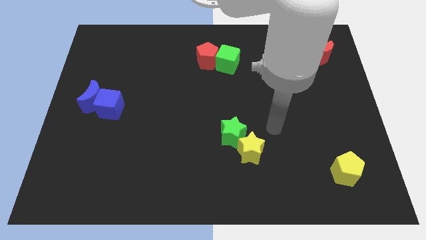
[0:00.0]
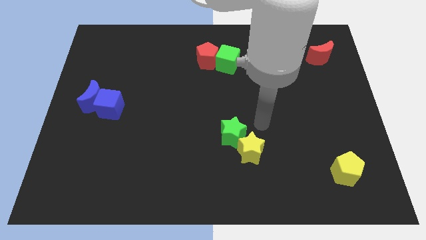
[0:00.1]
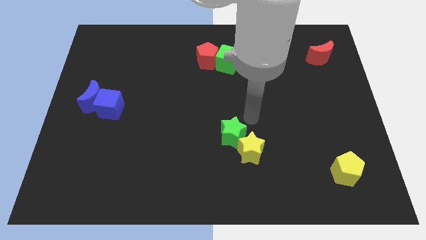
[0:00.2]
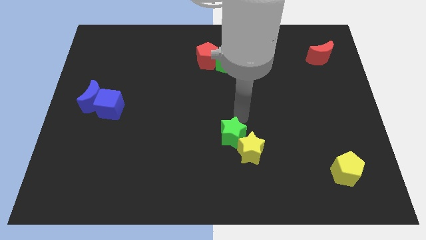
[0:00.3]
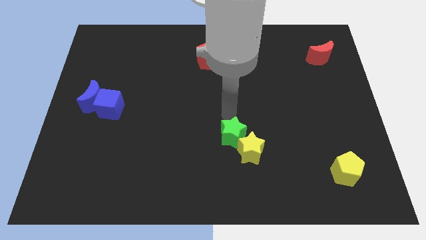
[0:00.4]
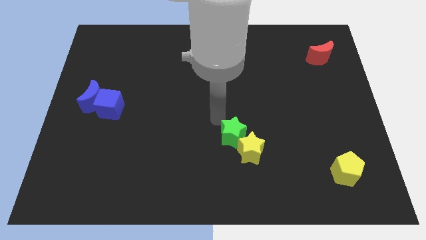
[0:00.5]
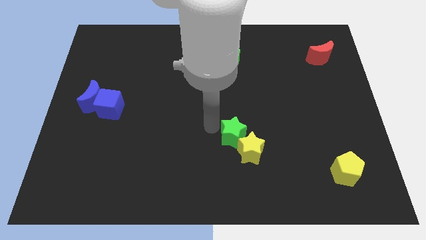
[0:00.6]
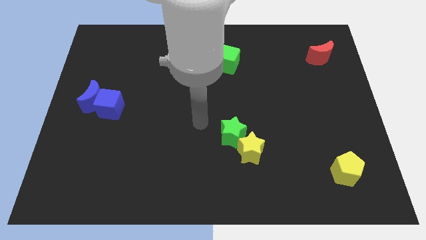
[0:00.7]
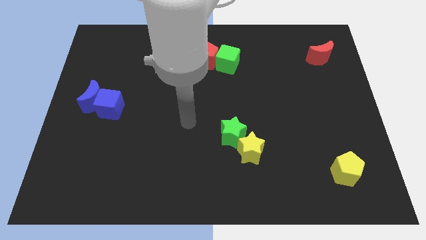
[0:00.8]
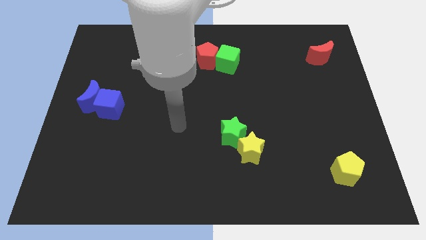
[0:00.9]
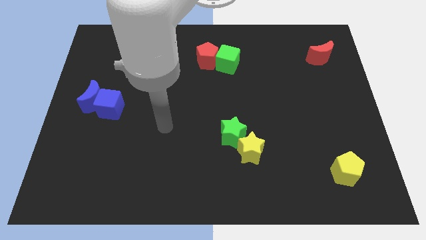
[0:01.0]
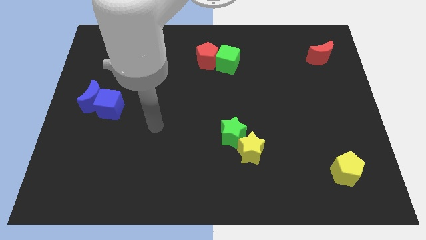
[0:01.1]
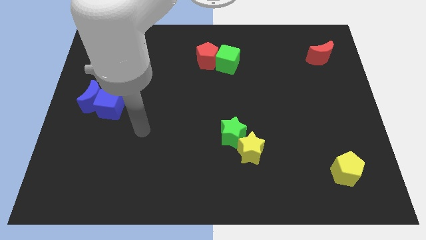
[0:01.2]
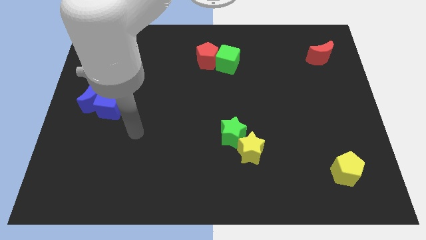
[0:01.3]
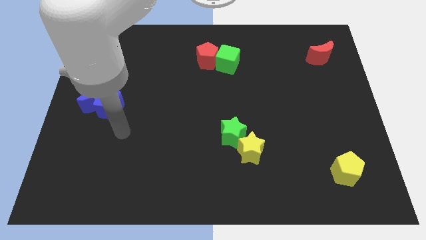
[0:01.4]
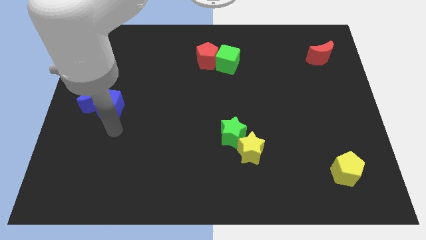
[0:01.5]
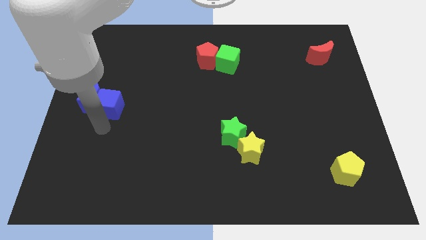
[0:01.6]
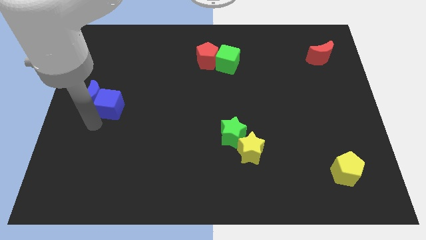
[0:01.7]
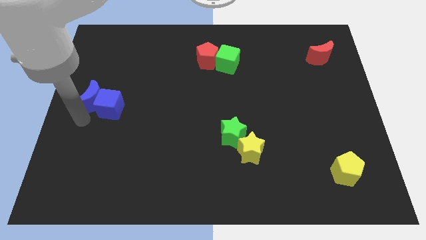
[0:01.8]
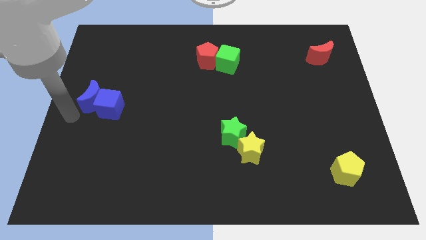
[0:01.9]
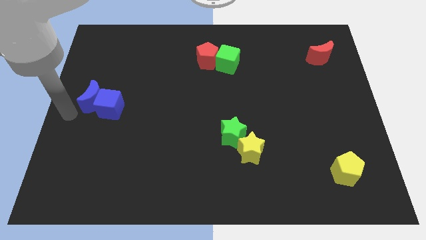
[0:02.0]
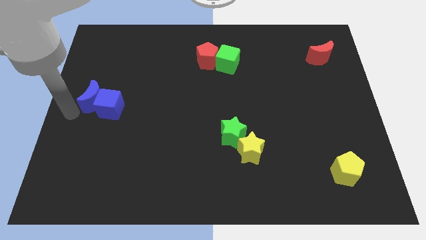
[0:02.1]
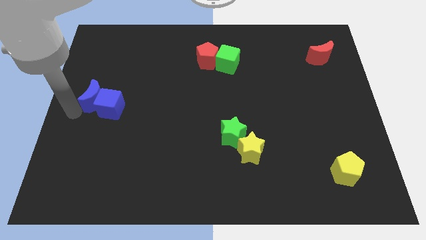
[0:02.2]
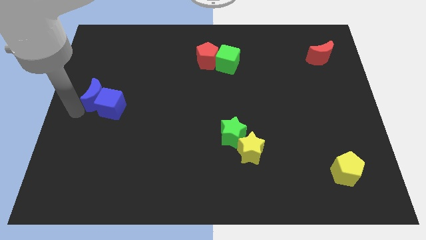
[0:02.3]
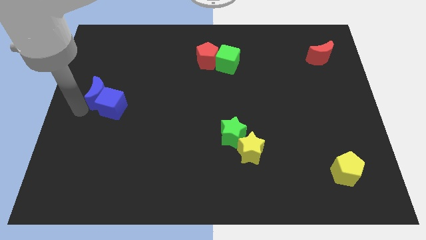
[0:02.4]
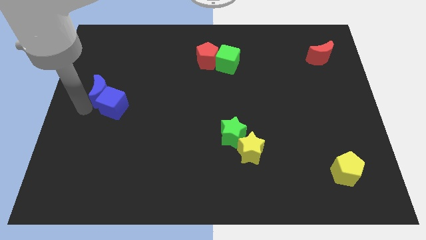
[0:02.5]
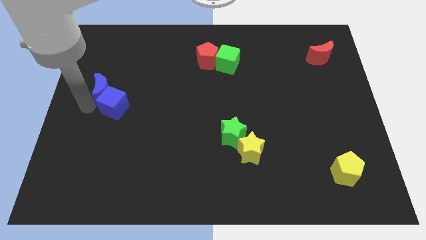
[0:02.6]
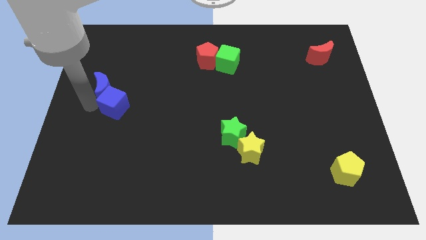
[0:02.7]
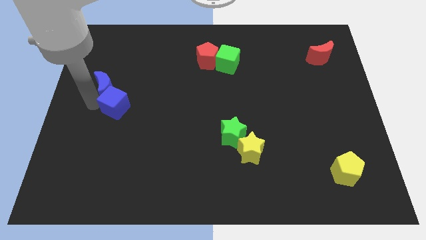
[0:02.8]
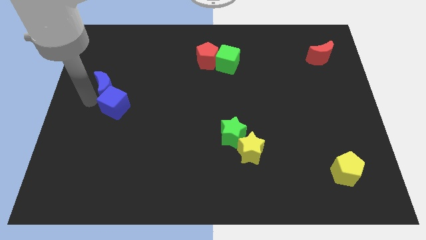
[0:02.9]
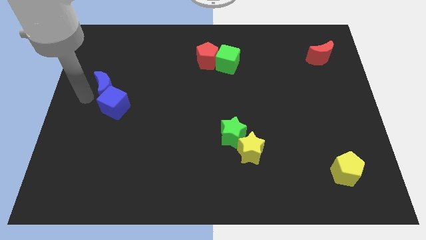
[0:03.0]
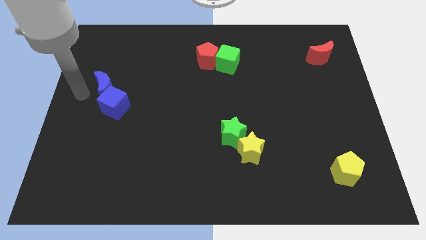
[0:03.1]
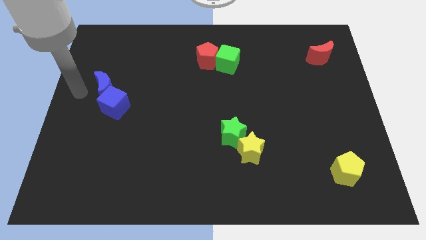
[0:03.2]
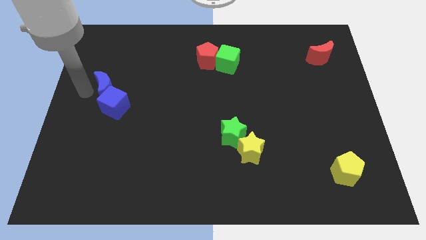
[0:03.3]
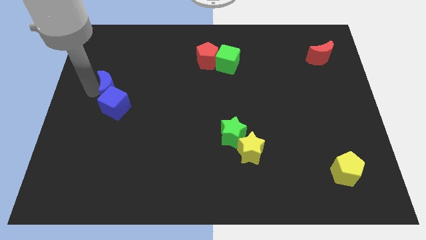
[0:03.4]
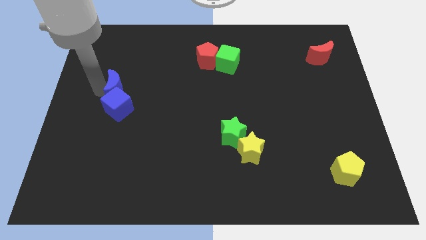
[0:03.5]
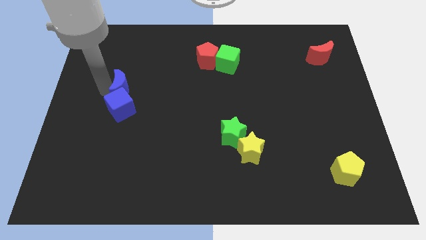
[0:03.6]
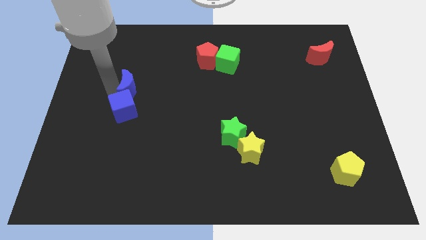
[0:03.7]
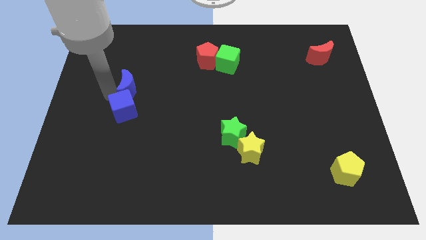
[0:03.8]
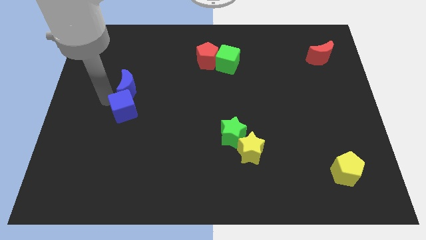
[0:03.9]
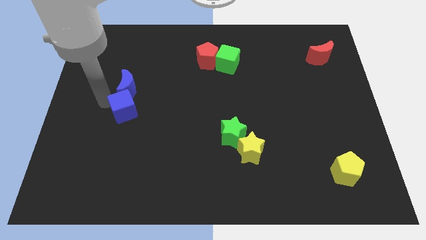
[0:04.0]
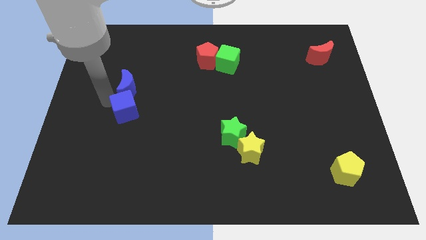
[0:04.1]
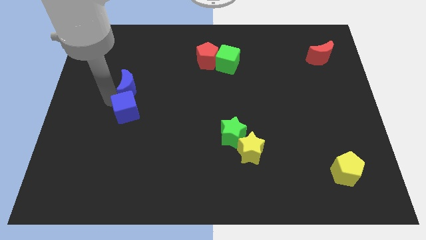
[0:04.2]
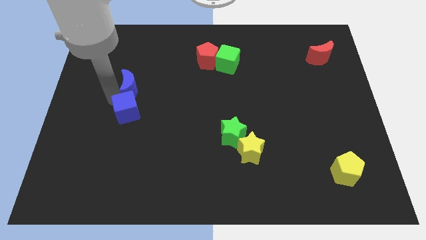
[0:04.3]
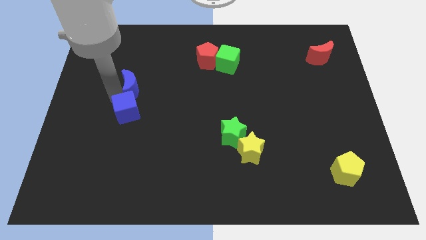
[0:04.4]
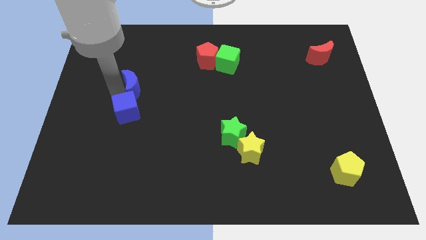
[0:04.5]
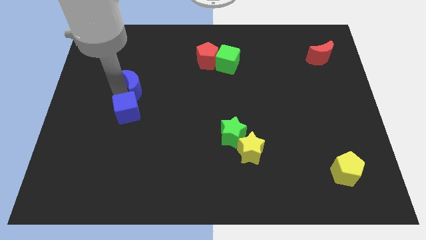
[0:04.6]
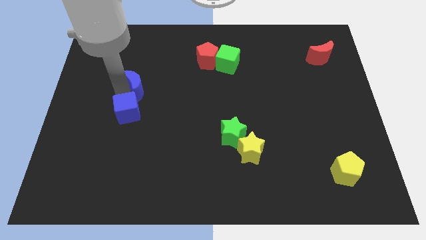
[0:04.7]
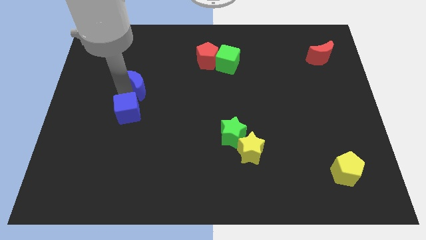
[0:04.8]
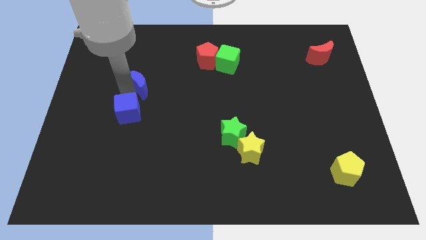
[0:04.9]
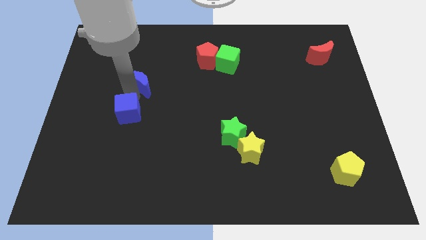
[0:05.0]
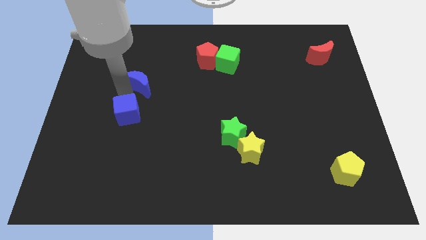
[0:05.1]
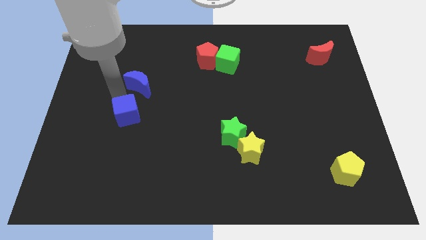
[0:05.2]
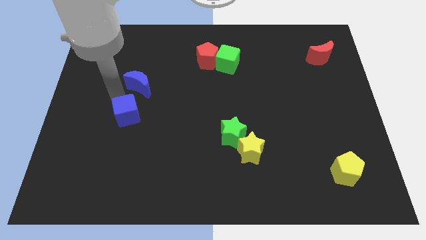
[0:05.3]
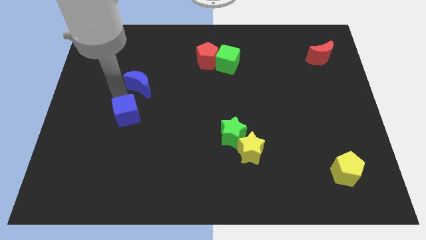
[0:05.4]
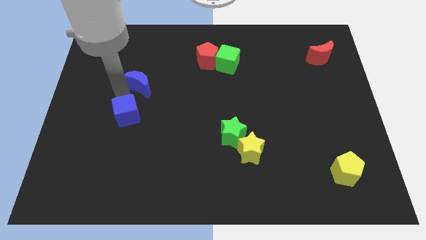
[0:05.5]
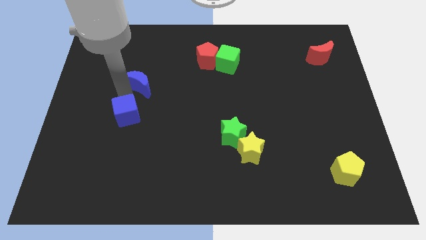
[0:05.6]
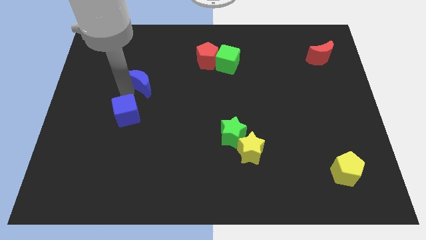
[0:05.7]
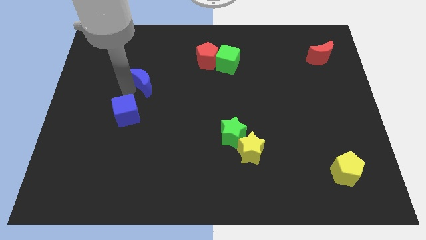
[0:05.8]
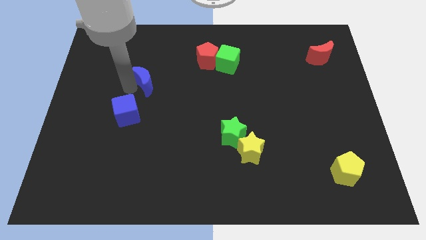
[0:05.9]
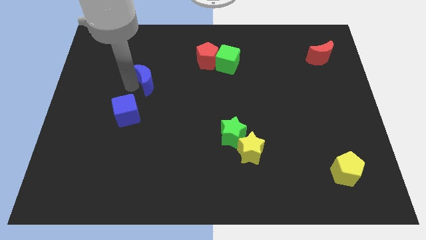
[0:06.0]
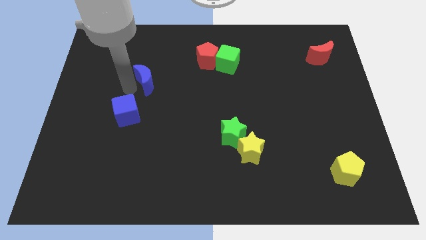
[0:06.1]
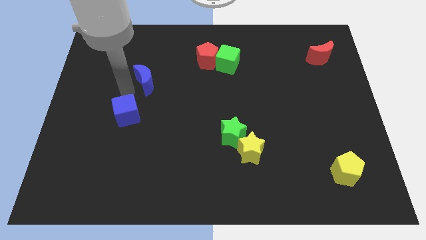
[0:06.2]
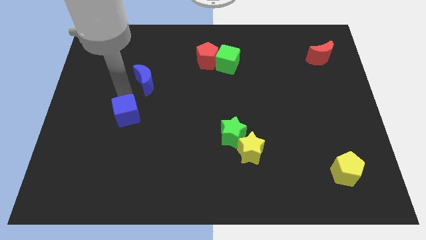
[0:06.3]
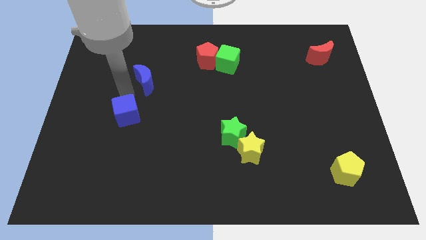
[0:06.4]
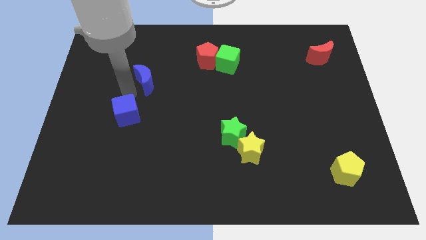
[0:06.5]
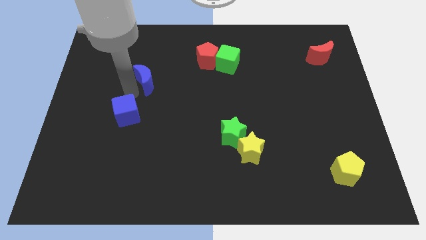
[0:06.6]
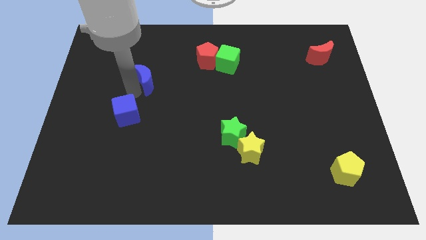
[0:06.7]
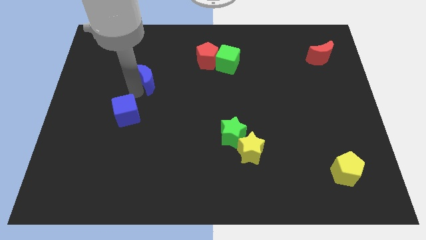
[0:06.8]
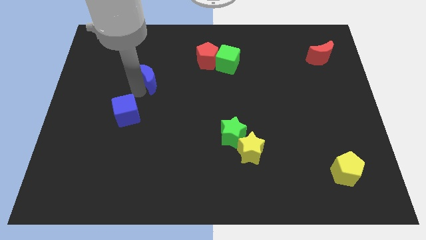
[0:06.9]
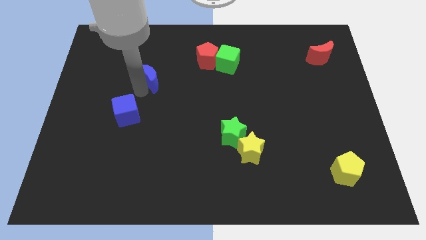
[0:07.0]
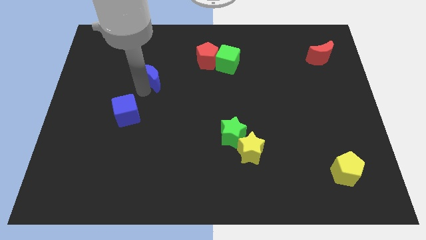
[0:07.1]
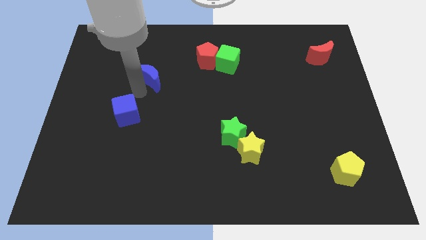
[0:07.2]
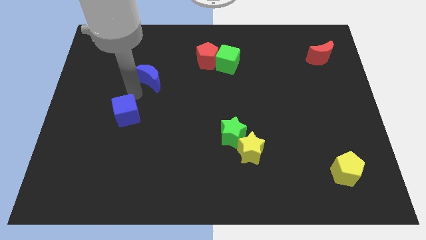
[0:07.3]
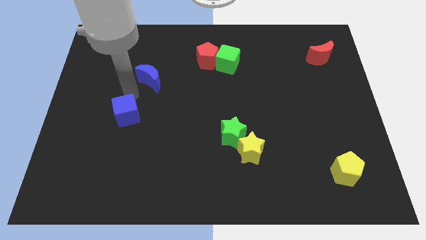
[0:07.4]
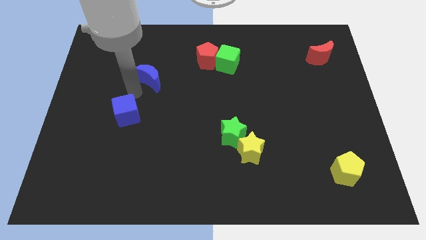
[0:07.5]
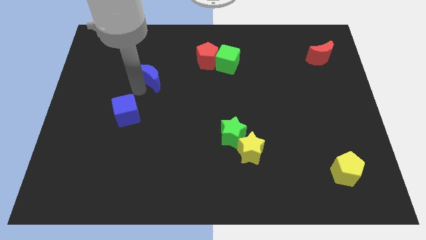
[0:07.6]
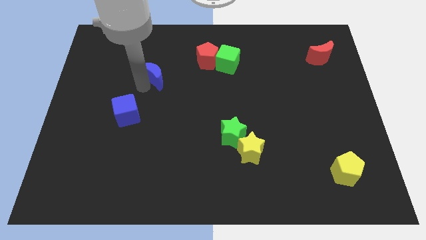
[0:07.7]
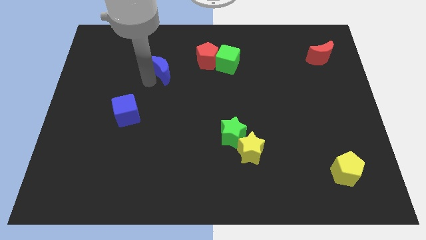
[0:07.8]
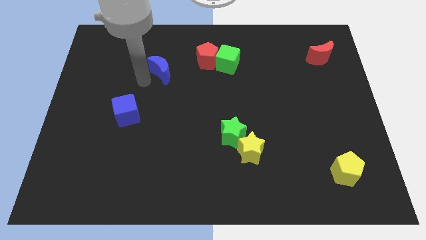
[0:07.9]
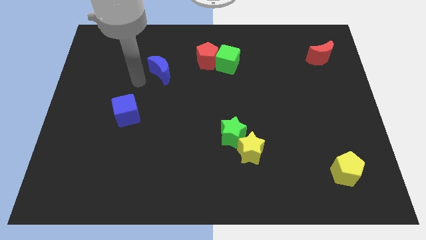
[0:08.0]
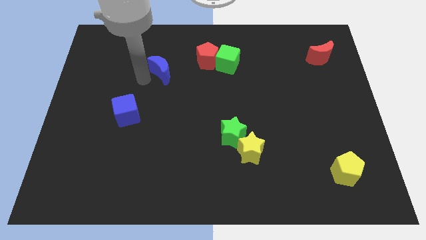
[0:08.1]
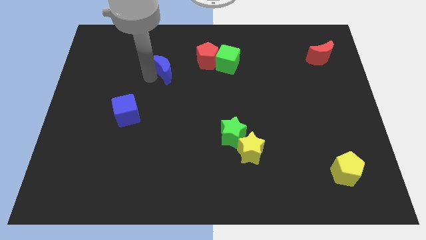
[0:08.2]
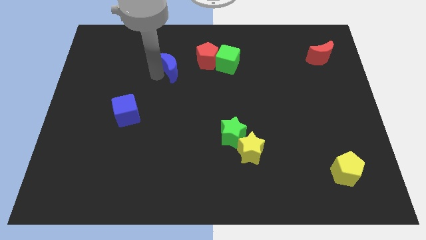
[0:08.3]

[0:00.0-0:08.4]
put the blue moon to the left of the green cube
